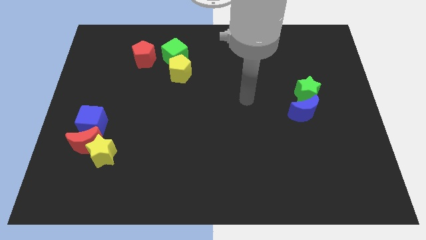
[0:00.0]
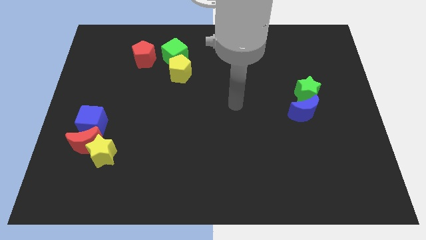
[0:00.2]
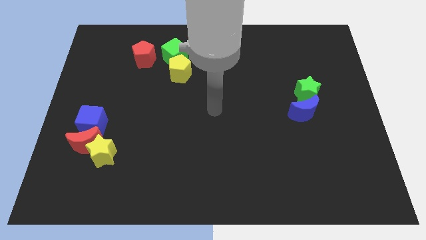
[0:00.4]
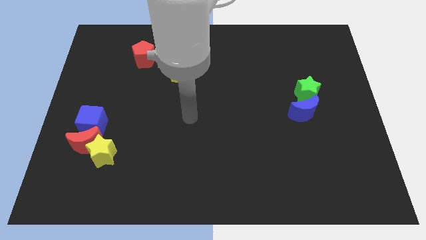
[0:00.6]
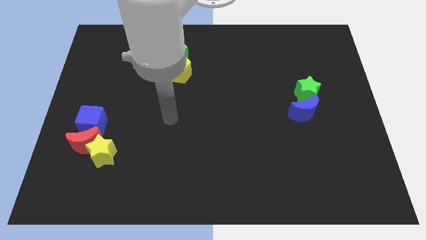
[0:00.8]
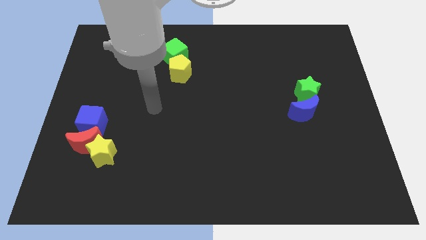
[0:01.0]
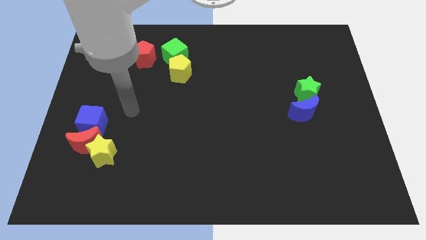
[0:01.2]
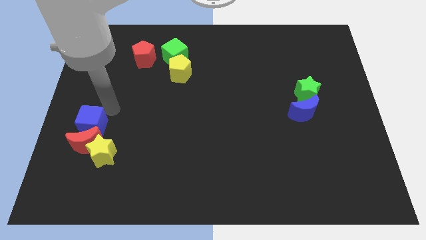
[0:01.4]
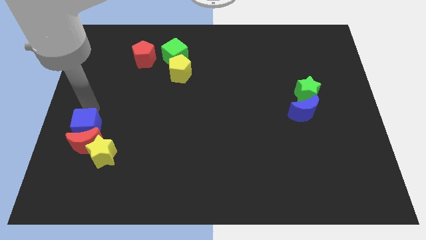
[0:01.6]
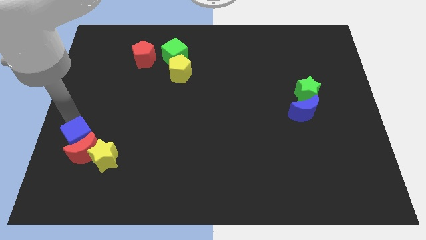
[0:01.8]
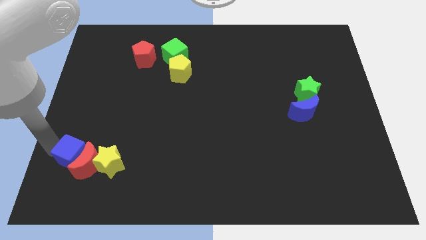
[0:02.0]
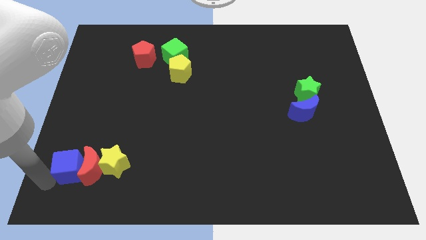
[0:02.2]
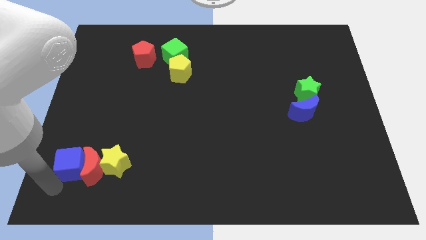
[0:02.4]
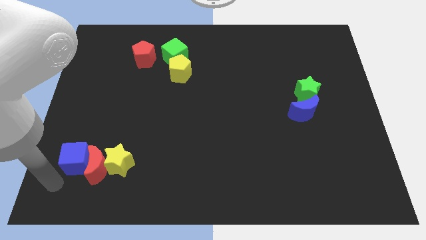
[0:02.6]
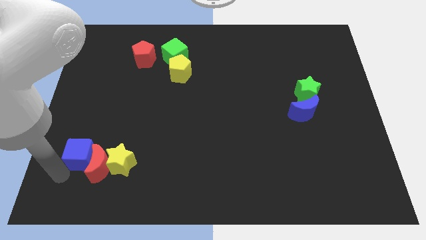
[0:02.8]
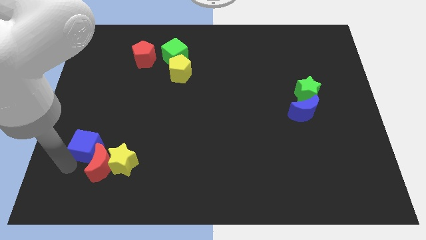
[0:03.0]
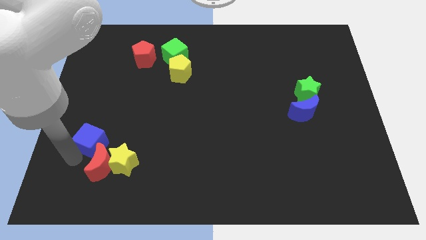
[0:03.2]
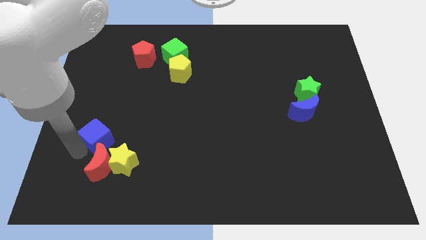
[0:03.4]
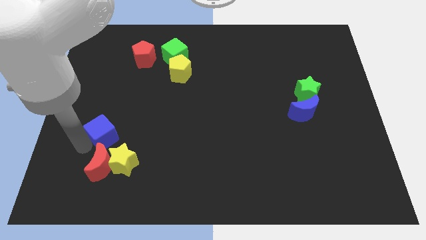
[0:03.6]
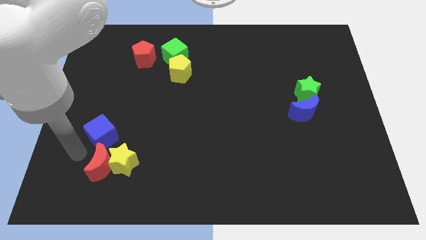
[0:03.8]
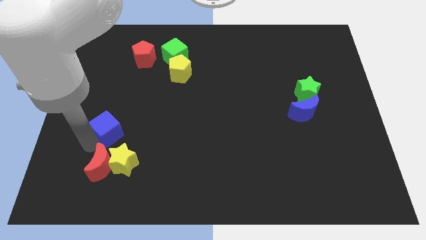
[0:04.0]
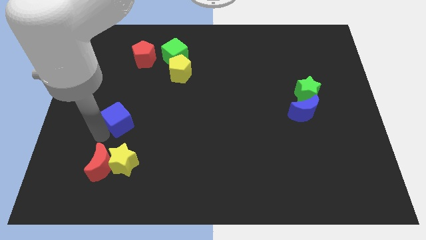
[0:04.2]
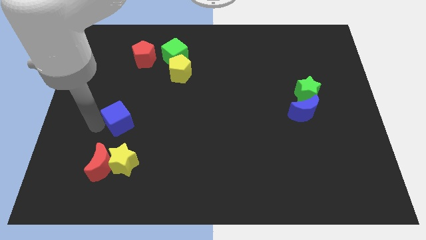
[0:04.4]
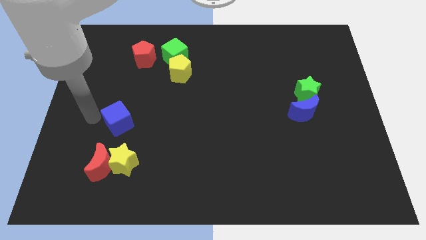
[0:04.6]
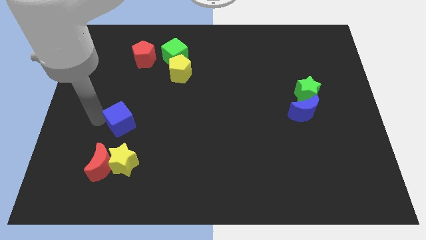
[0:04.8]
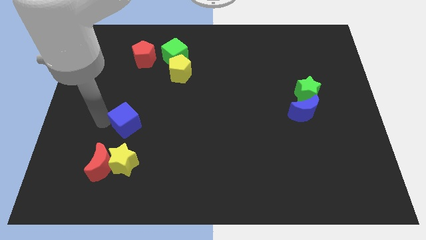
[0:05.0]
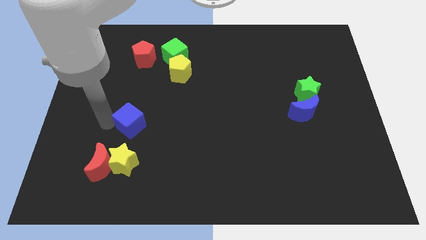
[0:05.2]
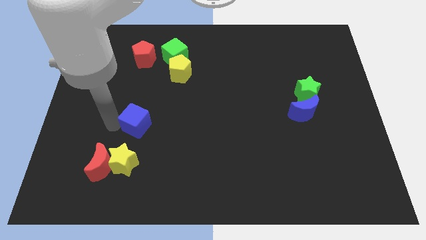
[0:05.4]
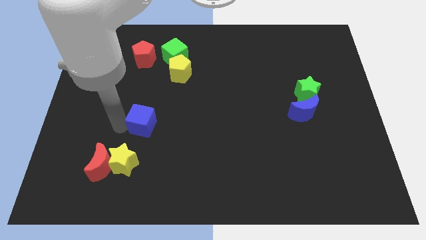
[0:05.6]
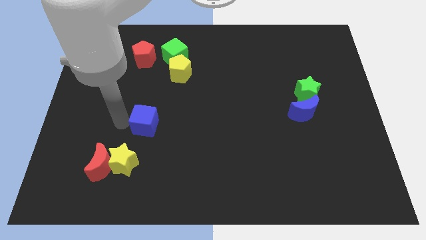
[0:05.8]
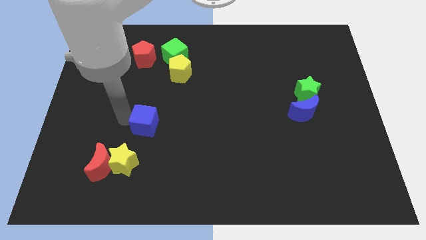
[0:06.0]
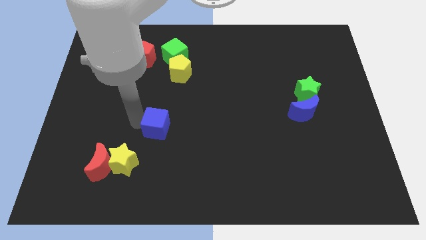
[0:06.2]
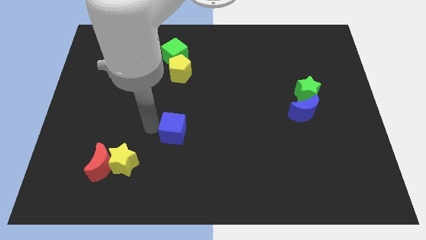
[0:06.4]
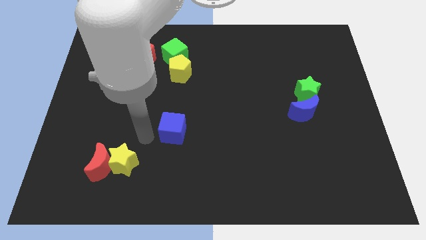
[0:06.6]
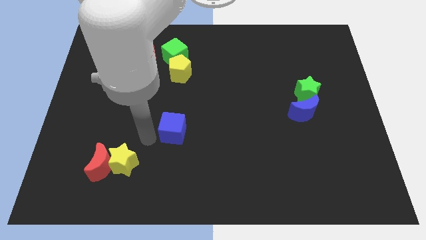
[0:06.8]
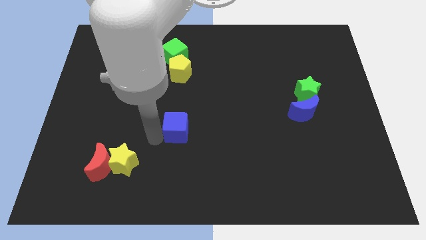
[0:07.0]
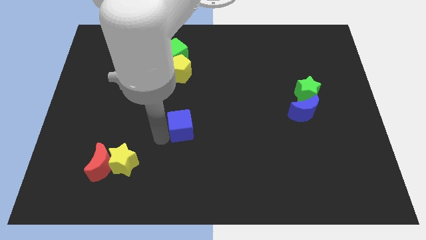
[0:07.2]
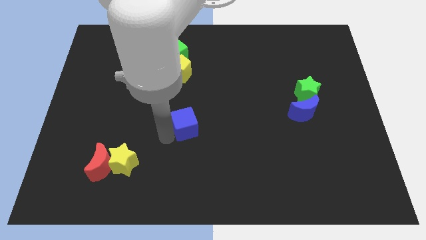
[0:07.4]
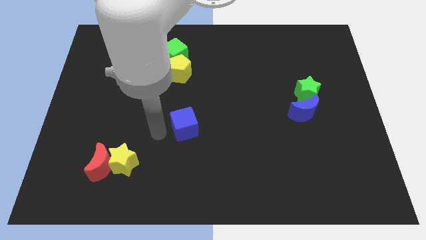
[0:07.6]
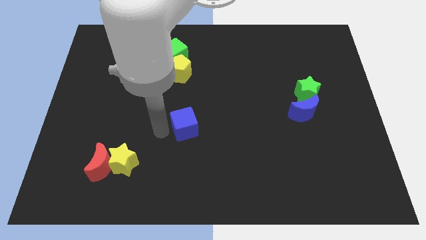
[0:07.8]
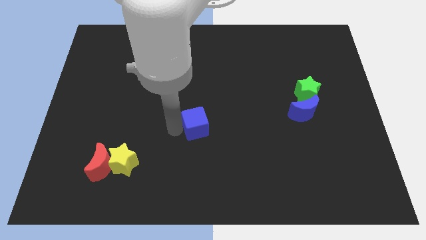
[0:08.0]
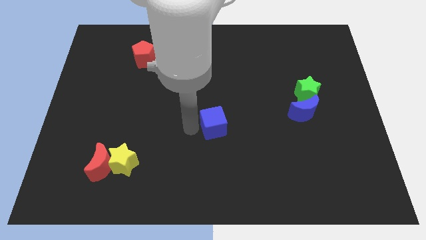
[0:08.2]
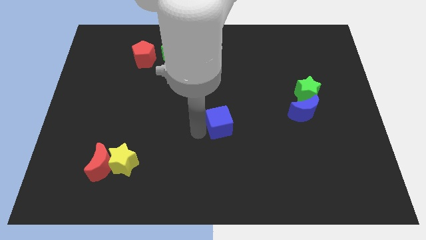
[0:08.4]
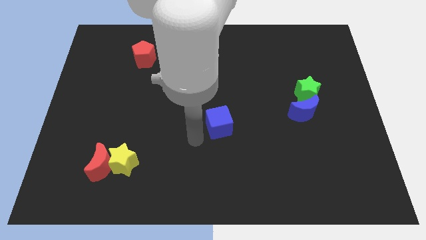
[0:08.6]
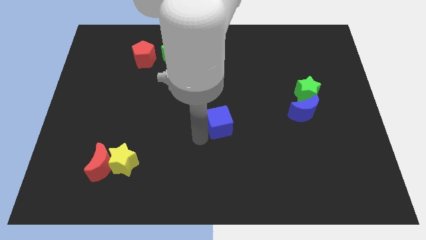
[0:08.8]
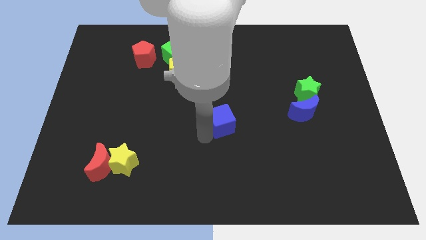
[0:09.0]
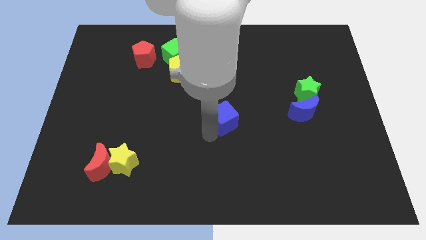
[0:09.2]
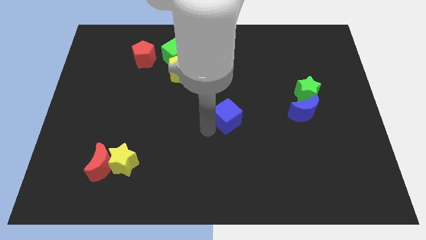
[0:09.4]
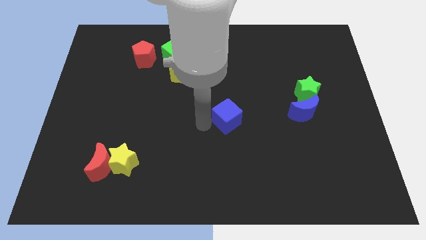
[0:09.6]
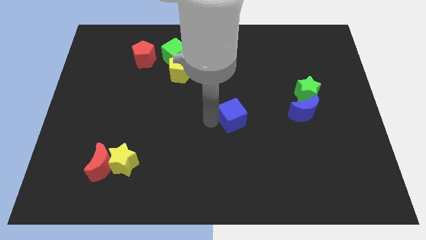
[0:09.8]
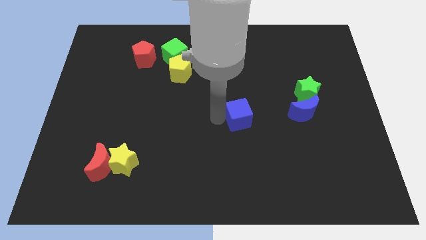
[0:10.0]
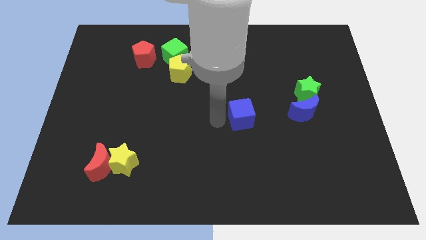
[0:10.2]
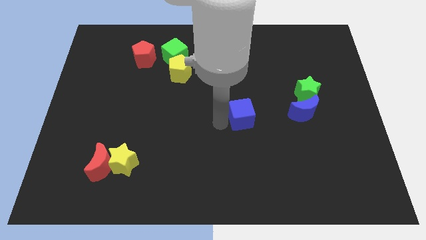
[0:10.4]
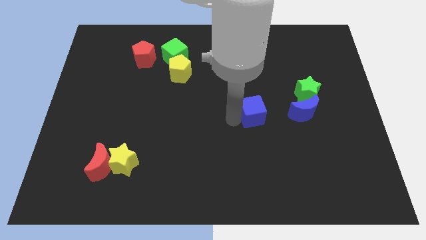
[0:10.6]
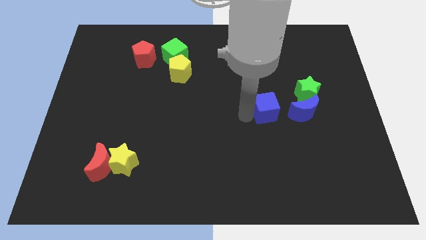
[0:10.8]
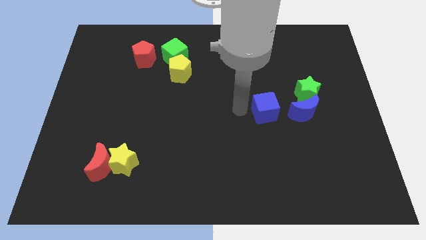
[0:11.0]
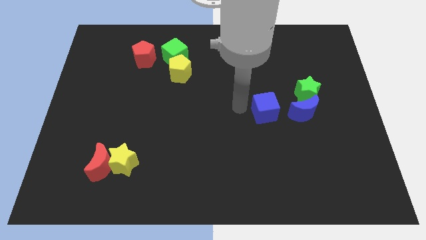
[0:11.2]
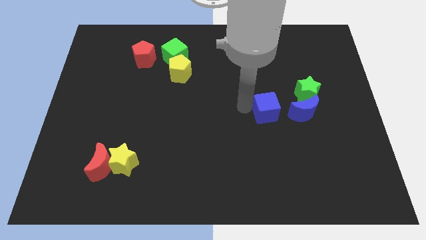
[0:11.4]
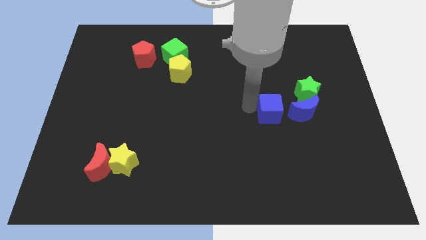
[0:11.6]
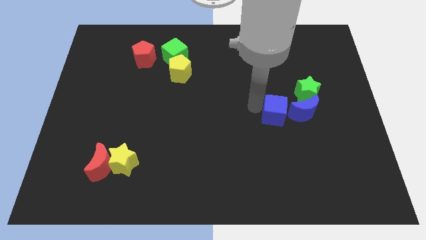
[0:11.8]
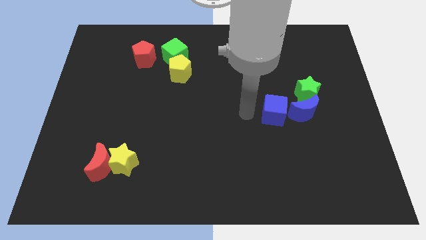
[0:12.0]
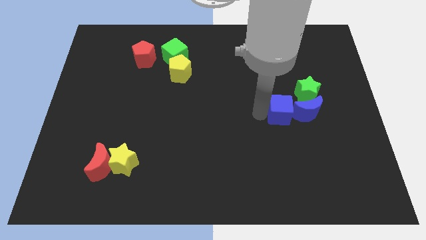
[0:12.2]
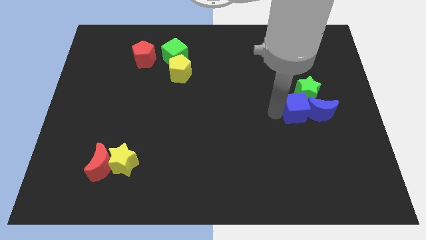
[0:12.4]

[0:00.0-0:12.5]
move the blue cube next to the blue moon

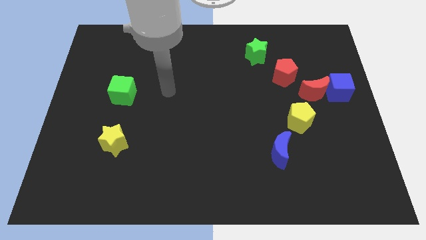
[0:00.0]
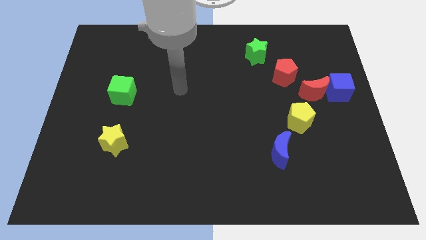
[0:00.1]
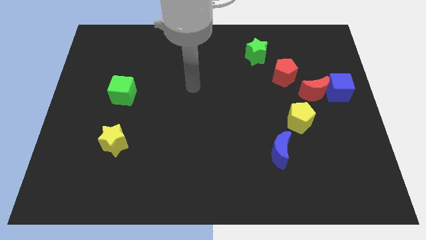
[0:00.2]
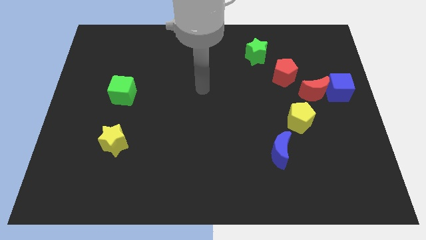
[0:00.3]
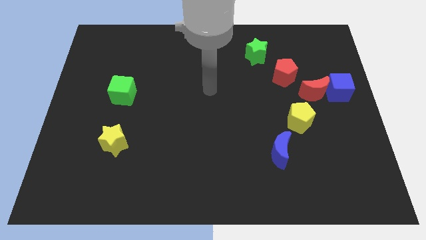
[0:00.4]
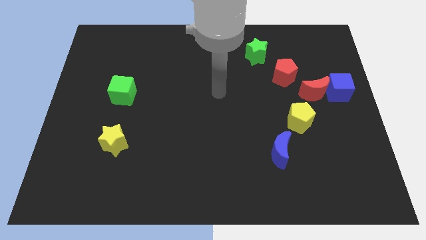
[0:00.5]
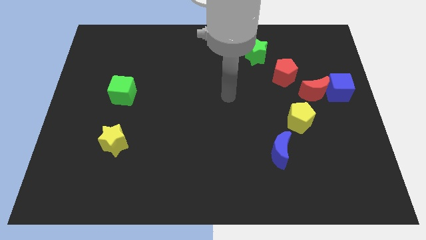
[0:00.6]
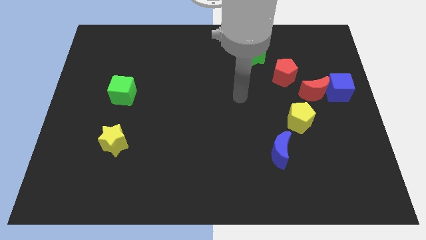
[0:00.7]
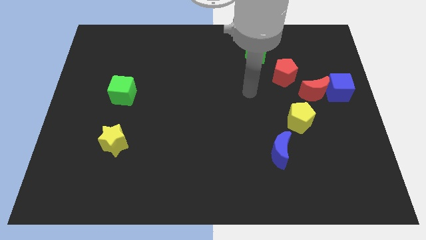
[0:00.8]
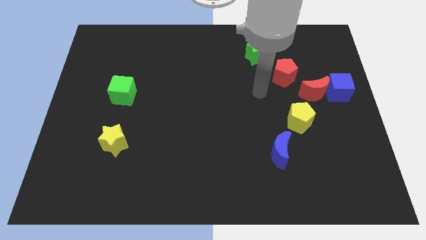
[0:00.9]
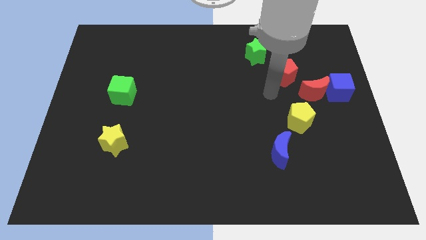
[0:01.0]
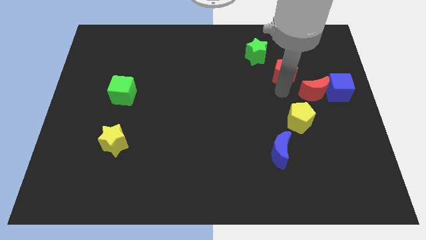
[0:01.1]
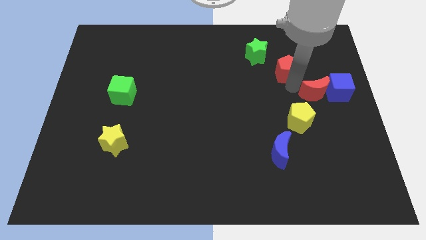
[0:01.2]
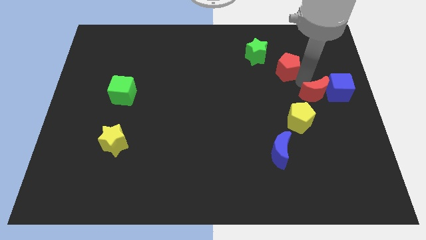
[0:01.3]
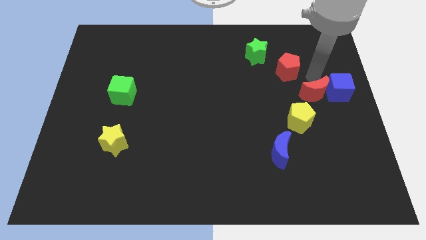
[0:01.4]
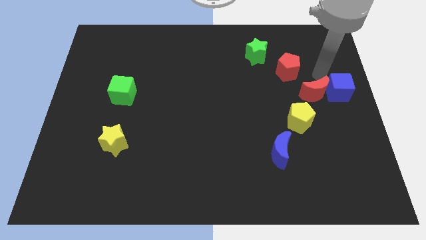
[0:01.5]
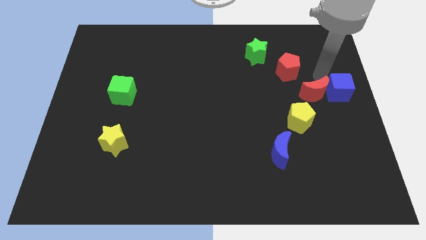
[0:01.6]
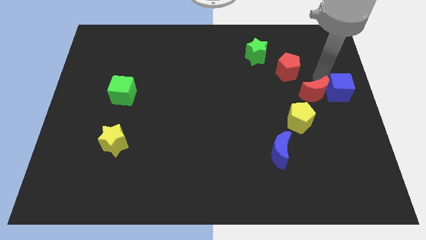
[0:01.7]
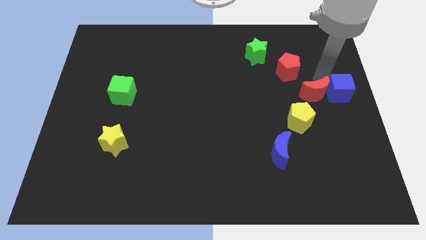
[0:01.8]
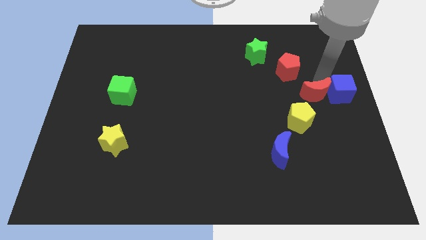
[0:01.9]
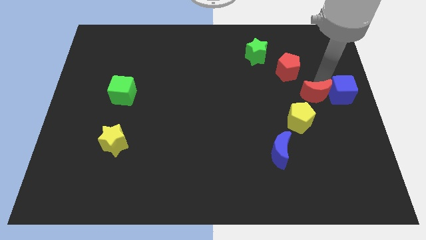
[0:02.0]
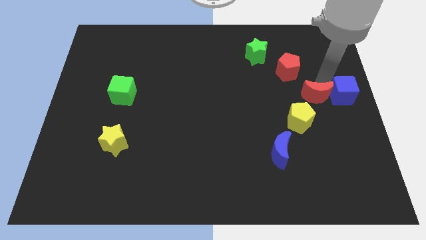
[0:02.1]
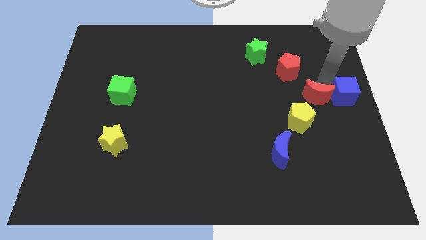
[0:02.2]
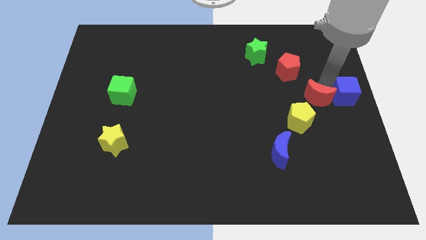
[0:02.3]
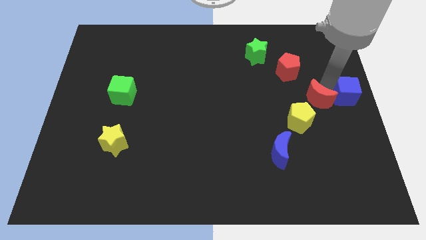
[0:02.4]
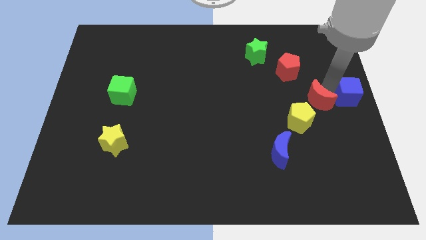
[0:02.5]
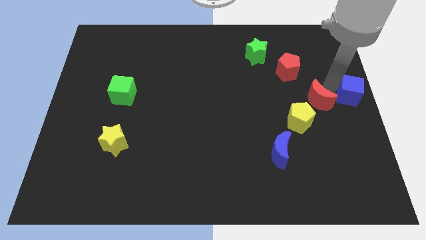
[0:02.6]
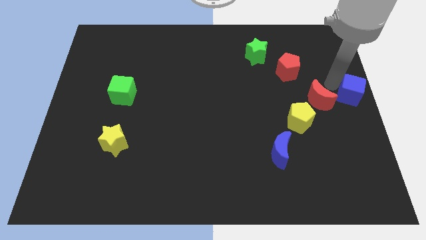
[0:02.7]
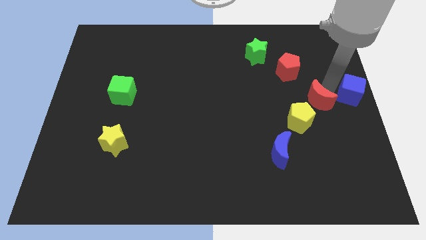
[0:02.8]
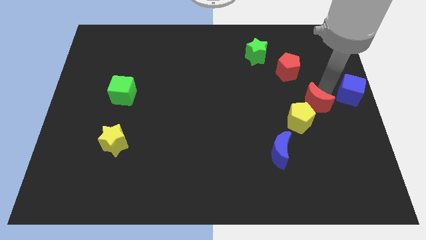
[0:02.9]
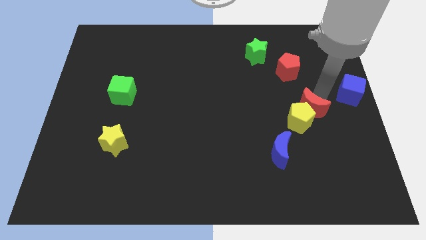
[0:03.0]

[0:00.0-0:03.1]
put the red moon towards the yellow pentagon
